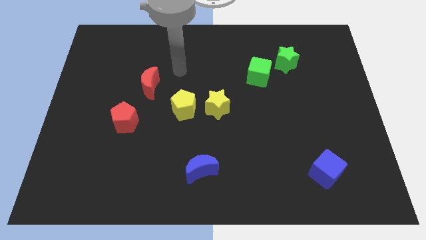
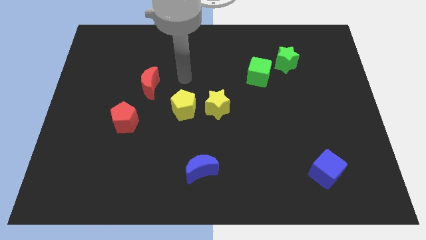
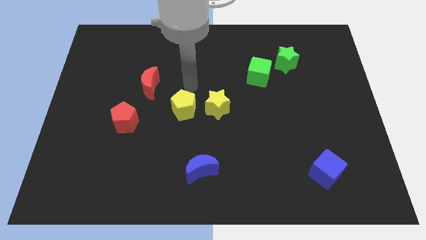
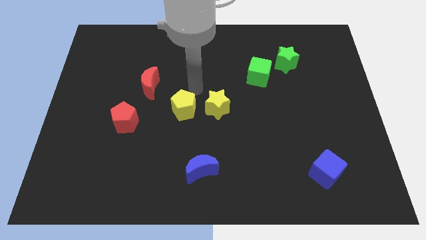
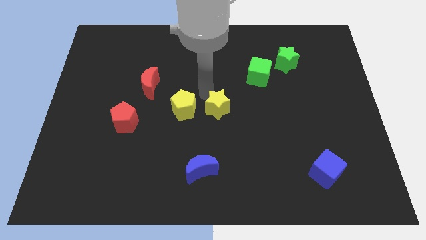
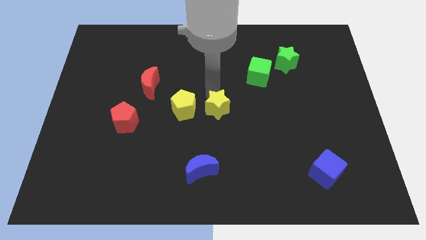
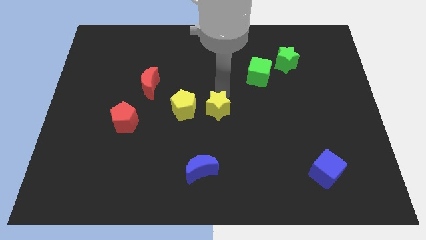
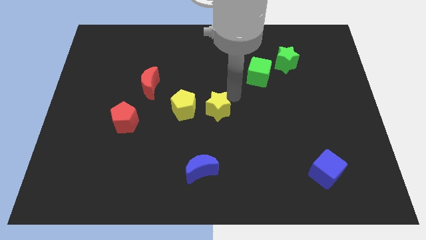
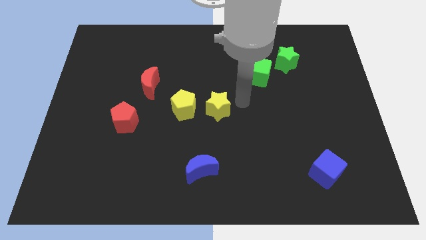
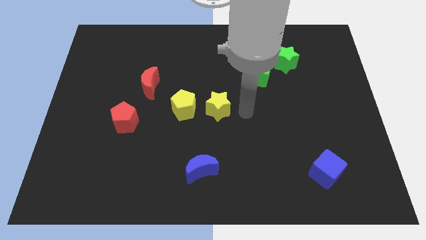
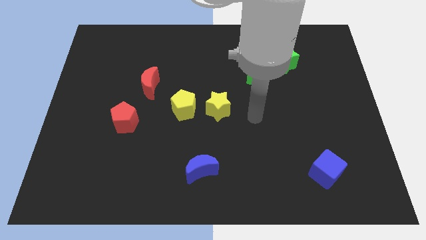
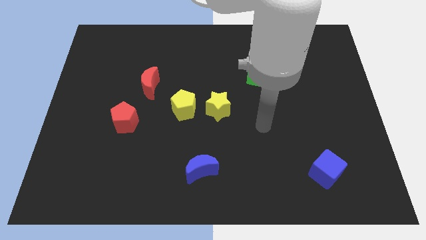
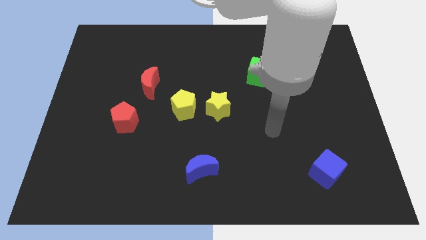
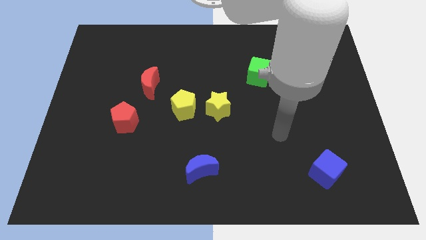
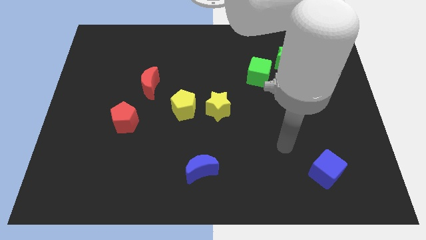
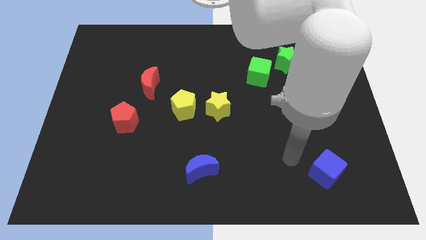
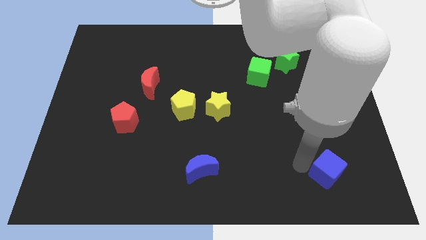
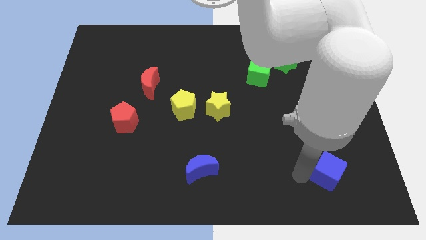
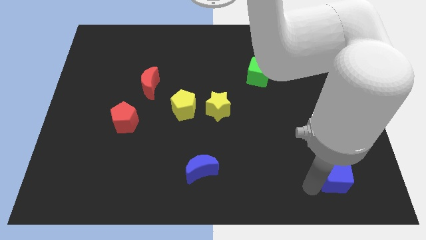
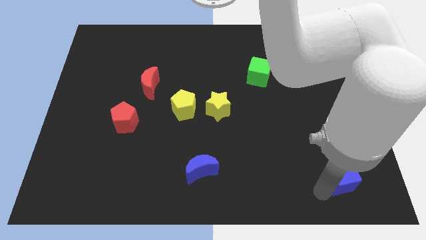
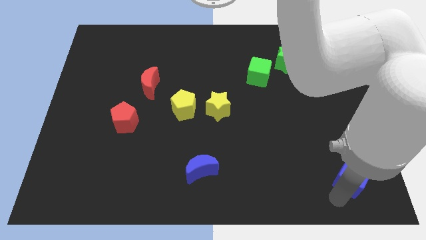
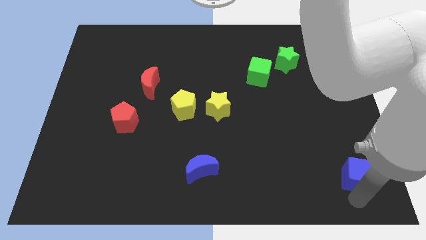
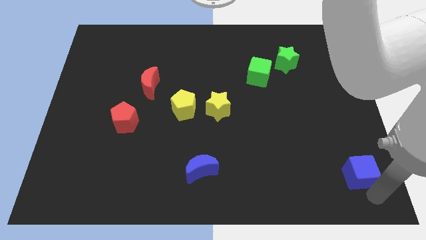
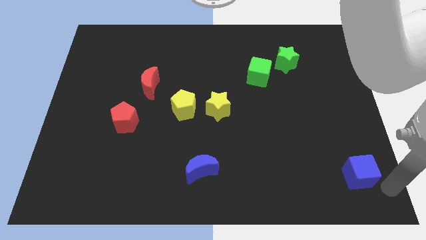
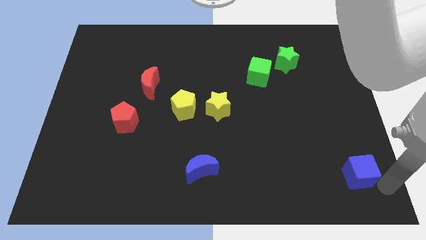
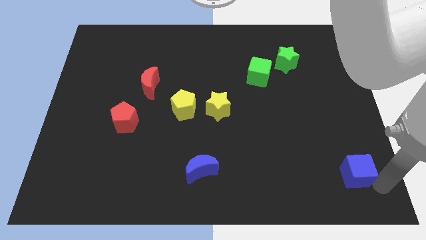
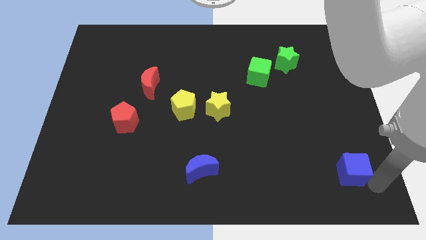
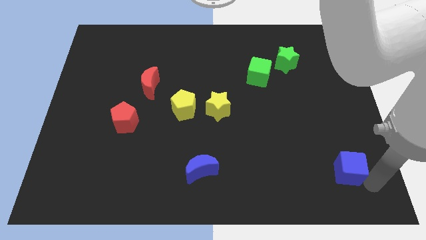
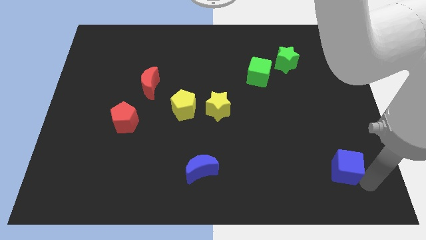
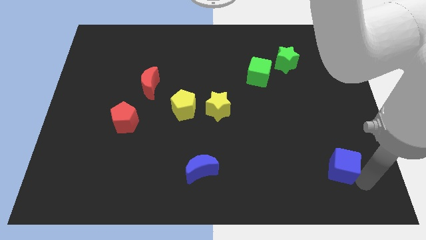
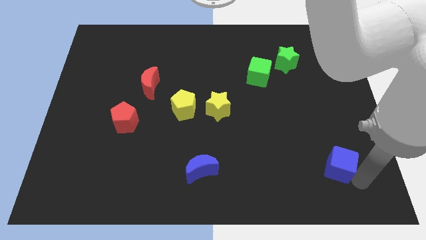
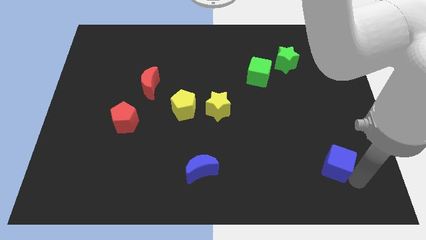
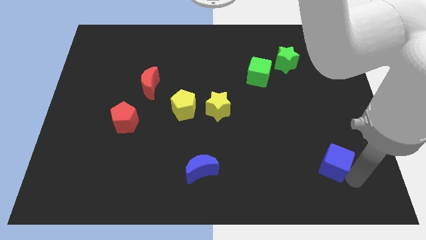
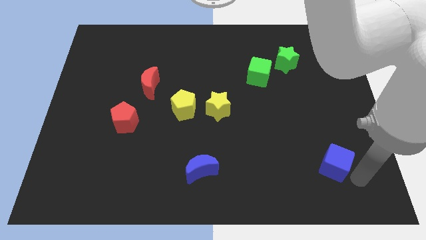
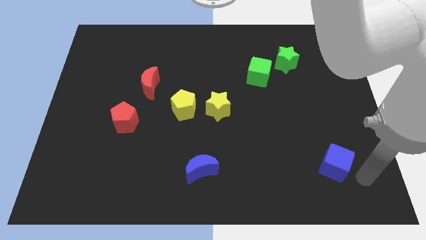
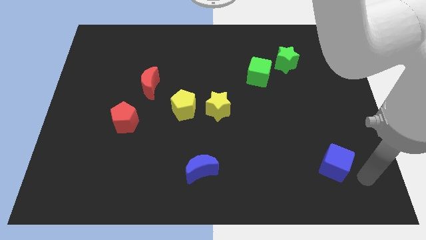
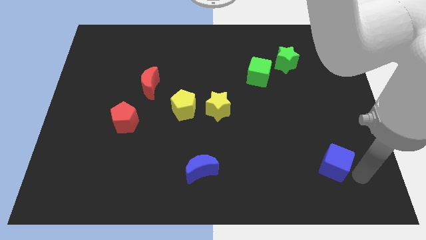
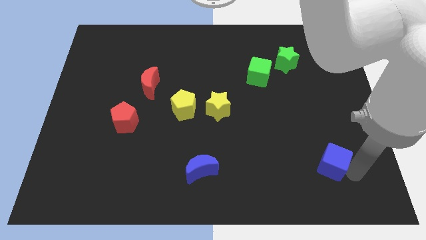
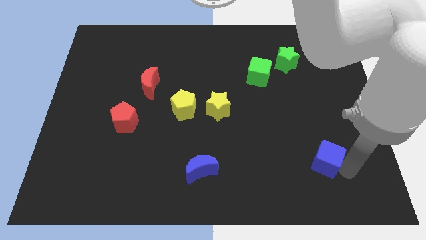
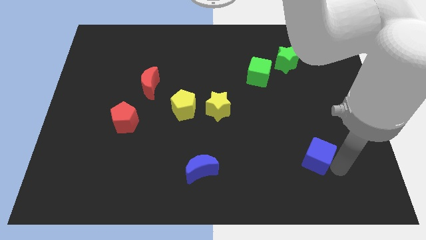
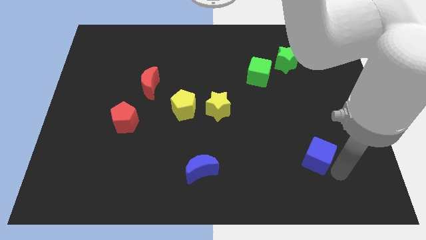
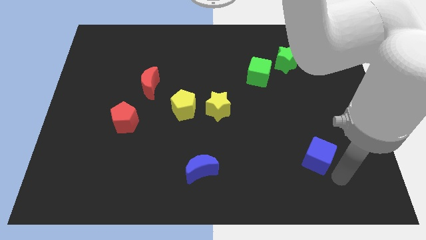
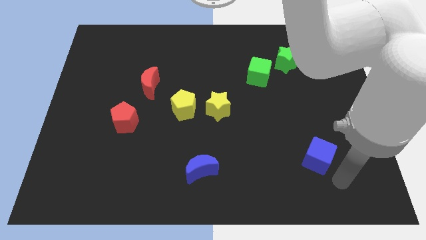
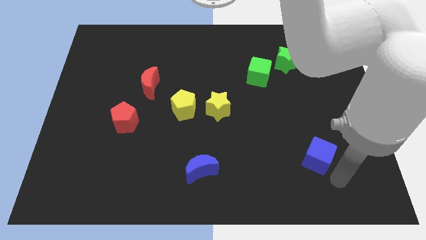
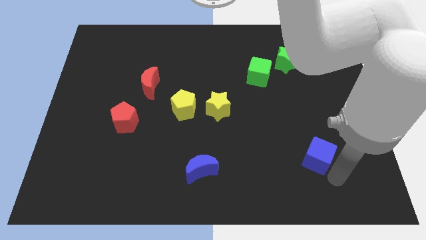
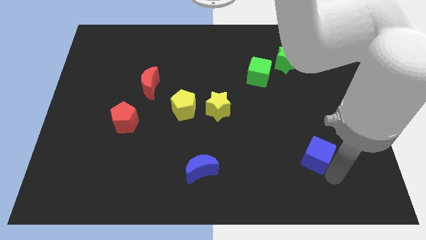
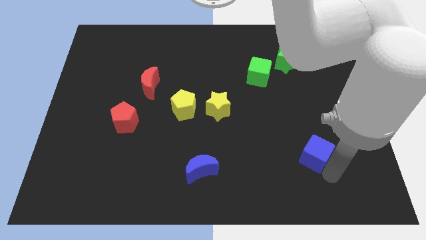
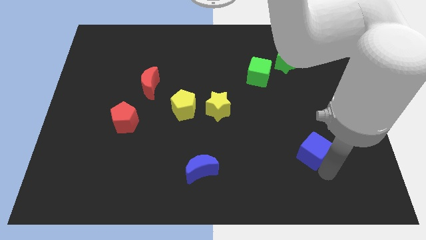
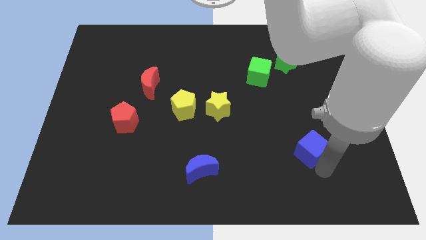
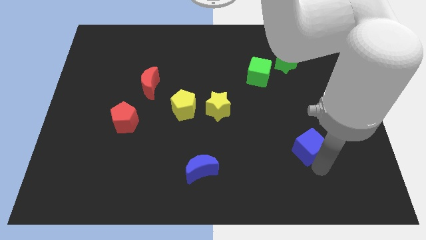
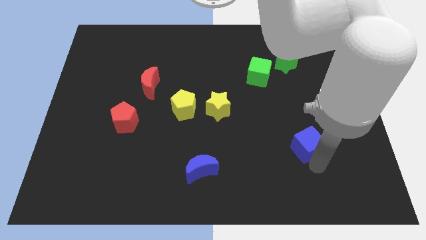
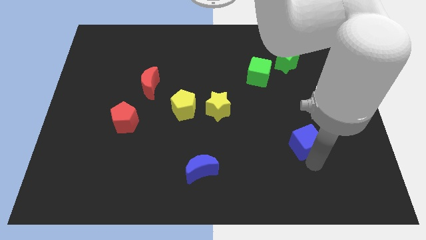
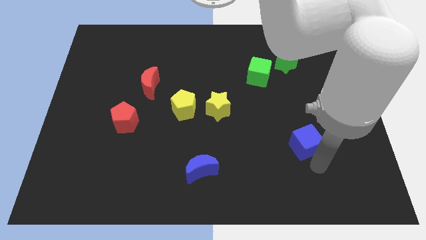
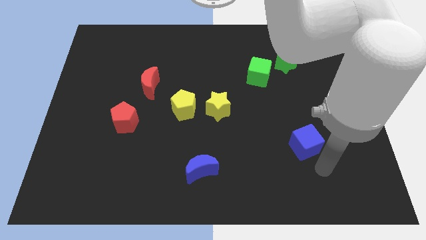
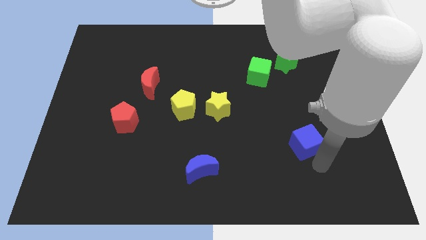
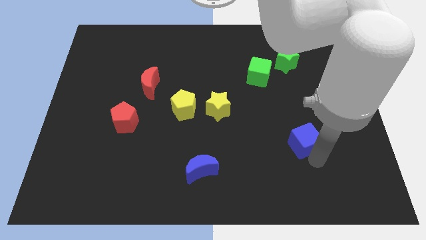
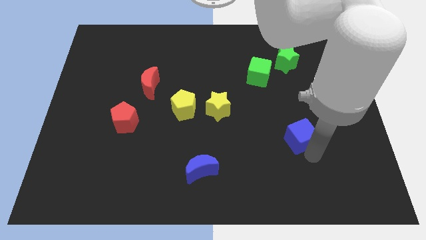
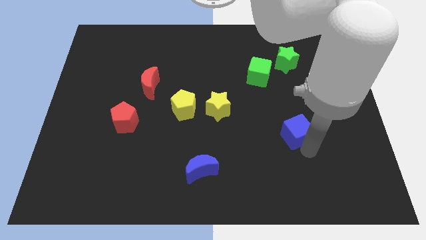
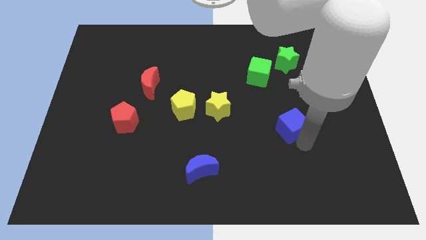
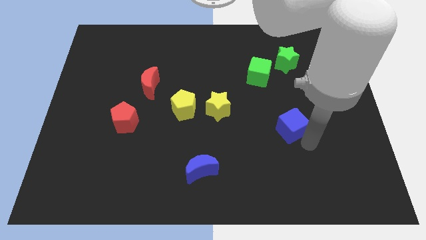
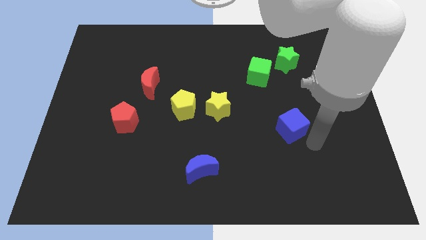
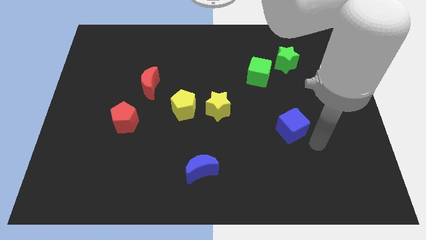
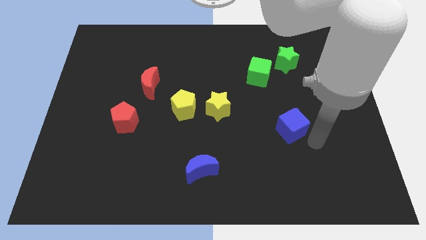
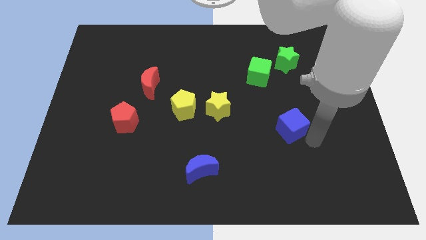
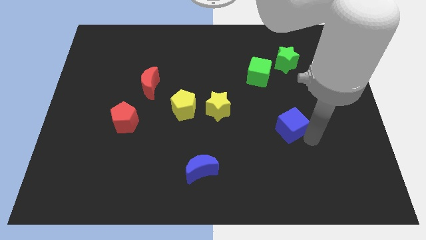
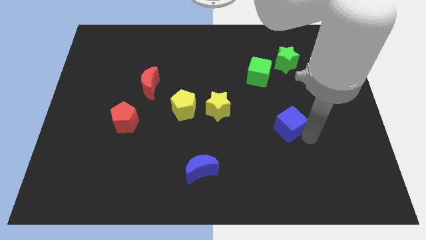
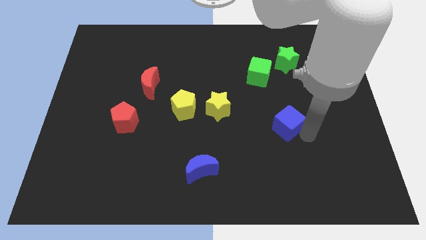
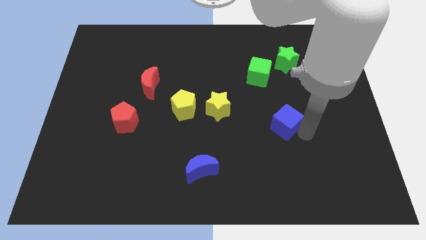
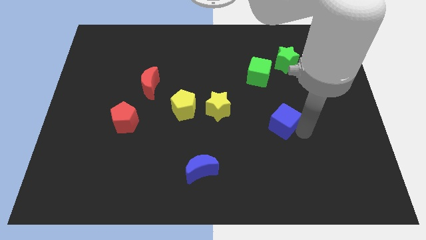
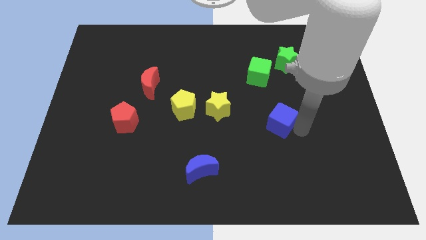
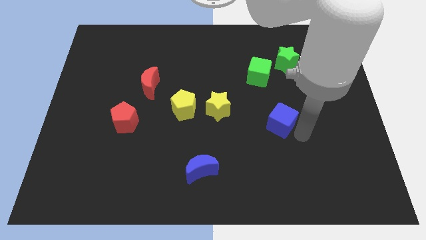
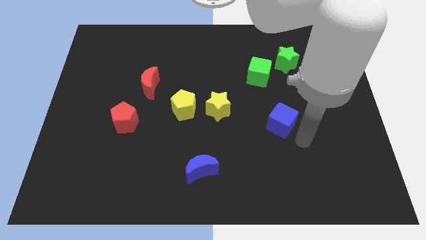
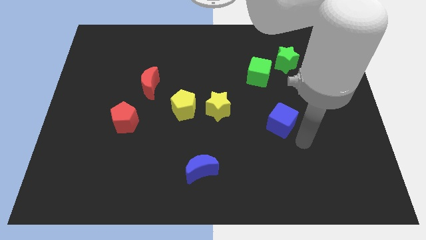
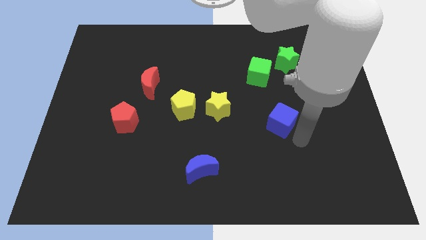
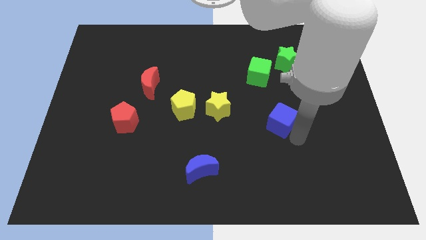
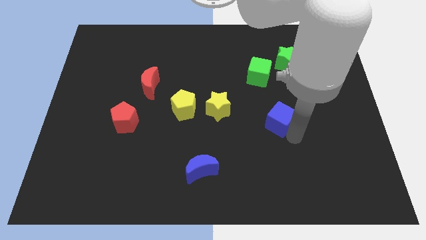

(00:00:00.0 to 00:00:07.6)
push the blue cube to the bottom of the green cube
